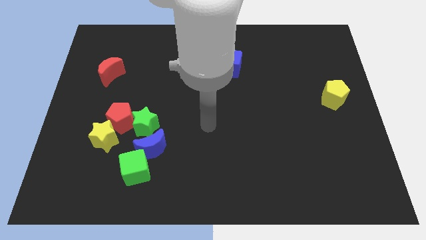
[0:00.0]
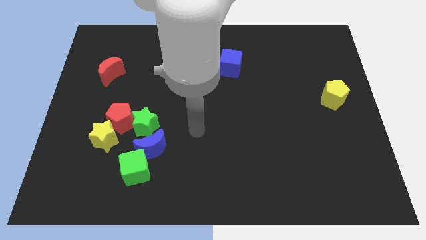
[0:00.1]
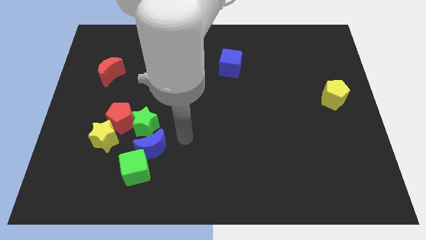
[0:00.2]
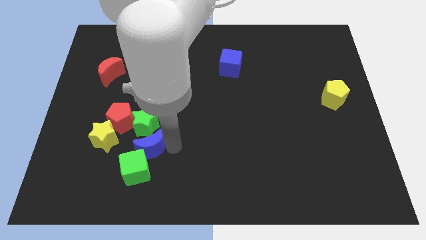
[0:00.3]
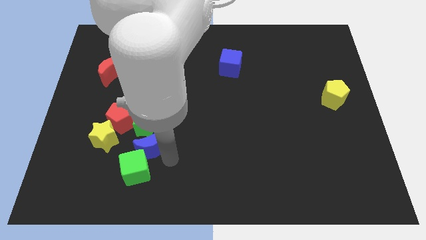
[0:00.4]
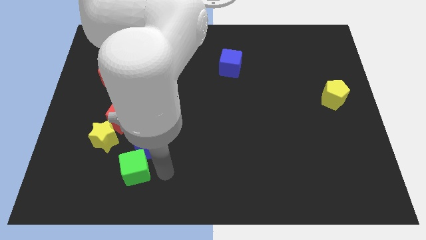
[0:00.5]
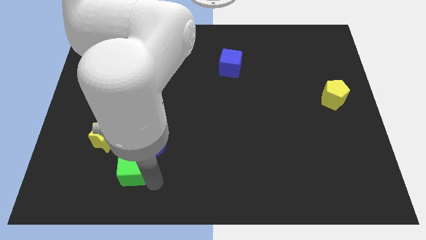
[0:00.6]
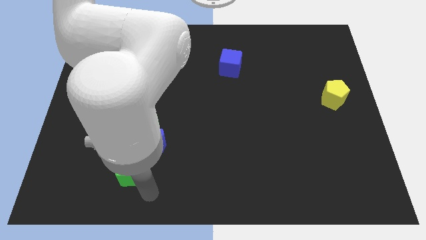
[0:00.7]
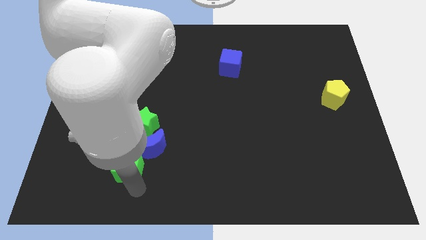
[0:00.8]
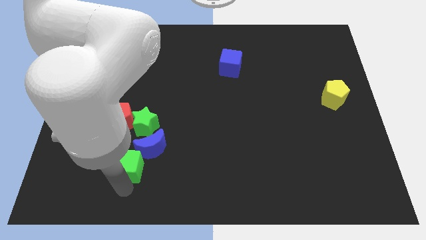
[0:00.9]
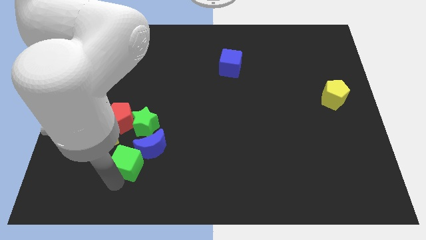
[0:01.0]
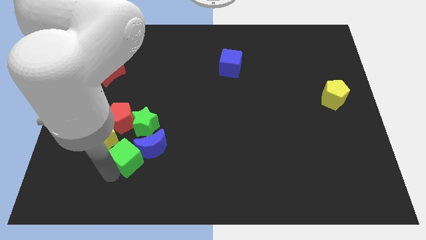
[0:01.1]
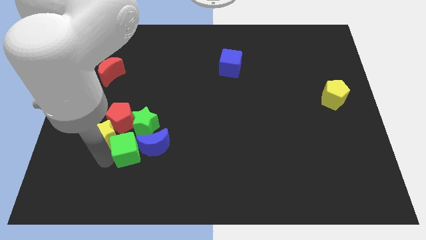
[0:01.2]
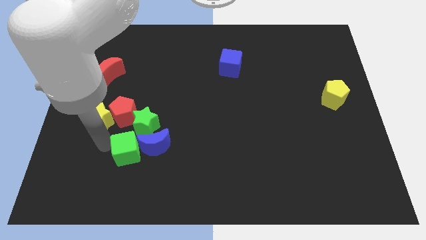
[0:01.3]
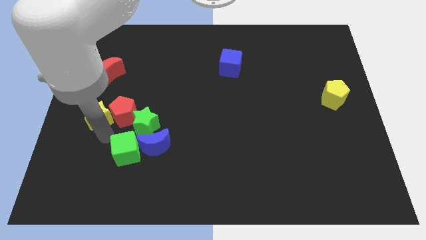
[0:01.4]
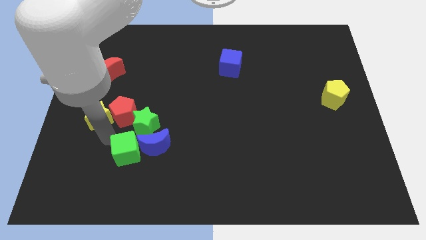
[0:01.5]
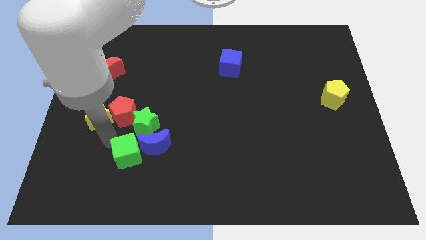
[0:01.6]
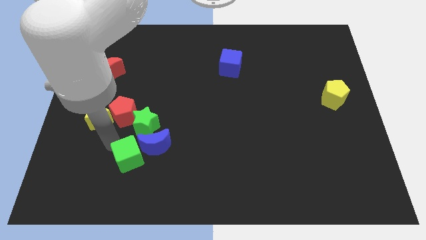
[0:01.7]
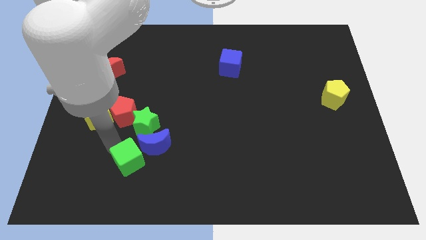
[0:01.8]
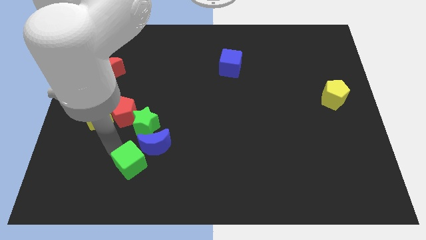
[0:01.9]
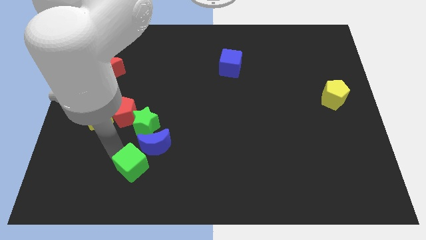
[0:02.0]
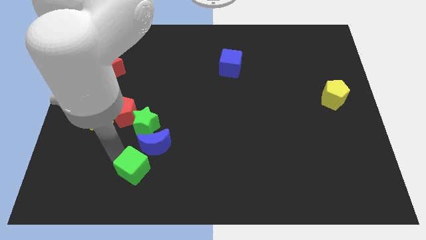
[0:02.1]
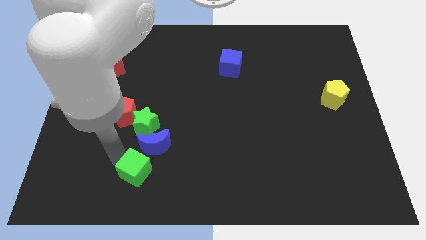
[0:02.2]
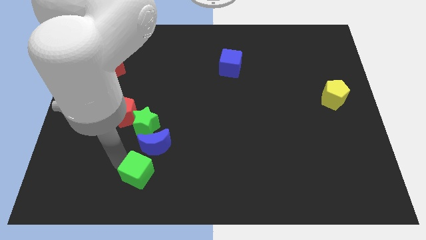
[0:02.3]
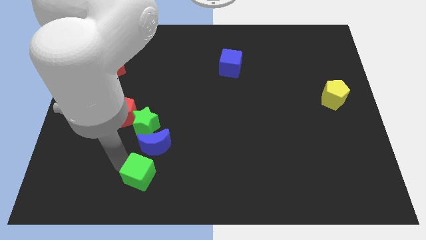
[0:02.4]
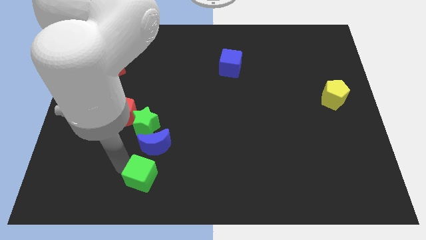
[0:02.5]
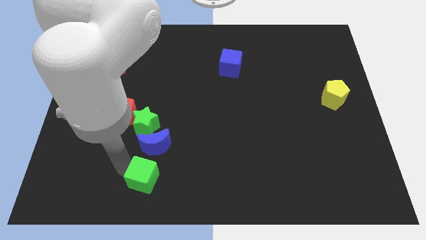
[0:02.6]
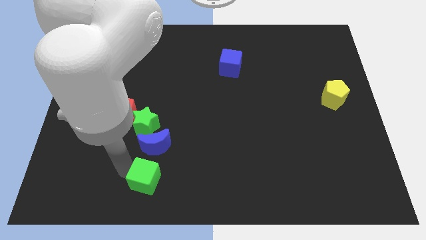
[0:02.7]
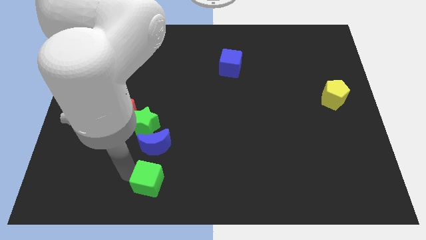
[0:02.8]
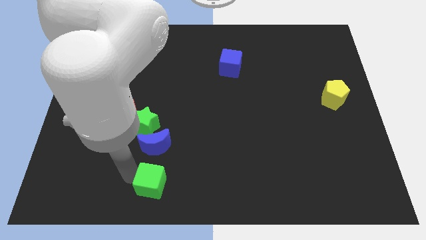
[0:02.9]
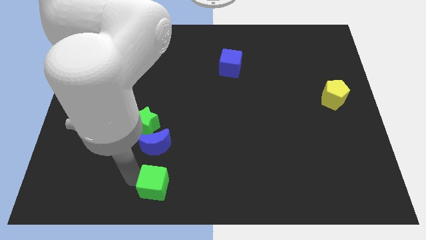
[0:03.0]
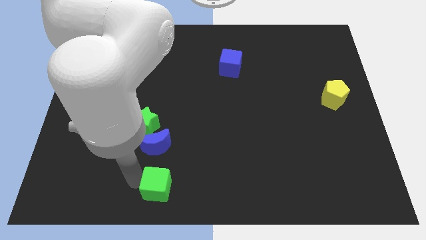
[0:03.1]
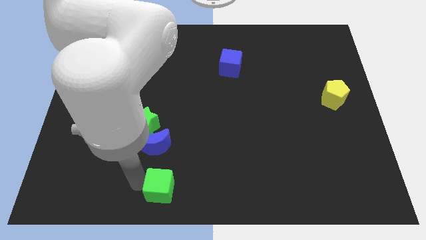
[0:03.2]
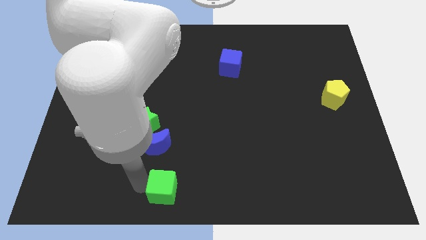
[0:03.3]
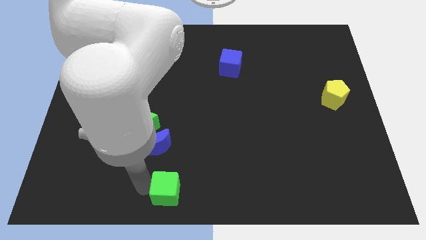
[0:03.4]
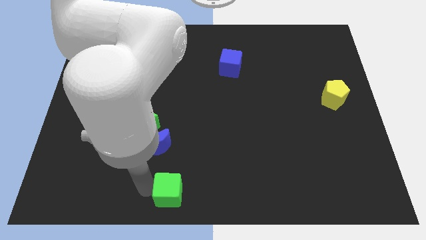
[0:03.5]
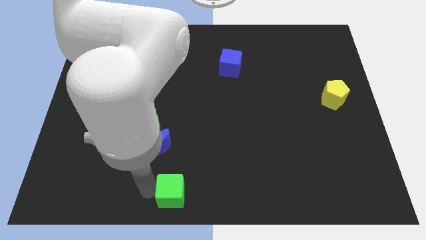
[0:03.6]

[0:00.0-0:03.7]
move the green cube to the right a little bit

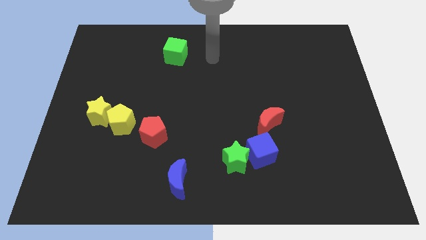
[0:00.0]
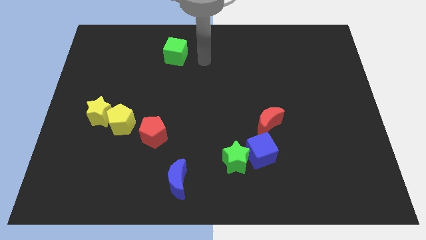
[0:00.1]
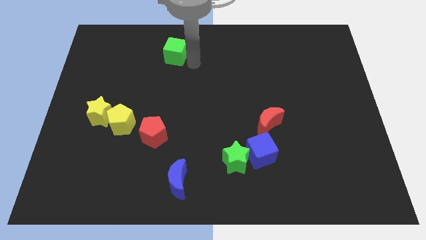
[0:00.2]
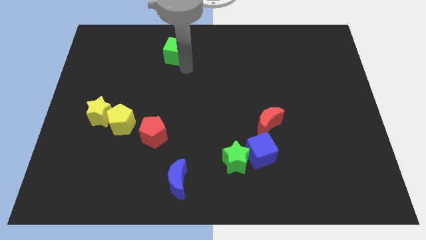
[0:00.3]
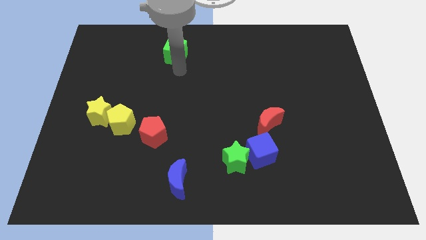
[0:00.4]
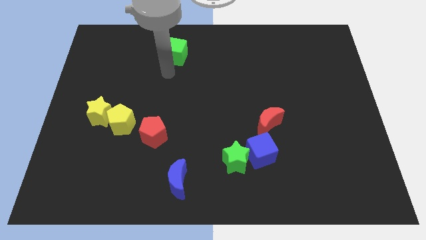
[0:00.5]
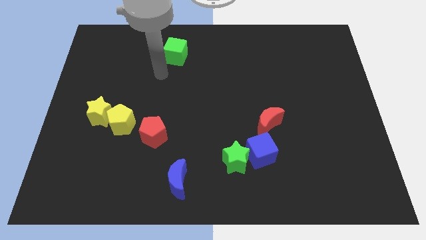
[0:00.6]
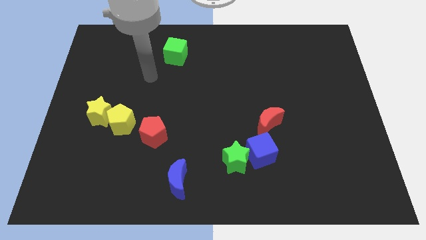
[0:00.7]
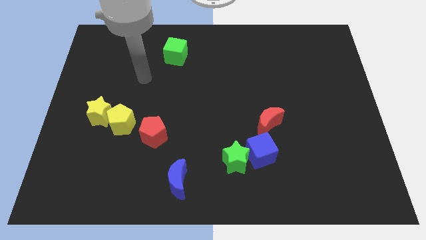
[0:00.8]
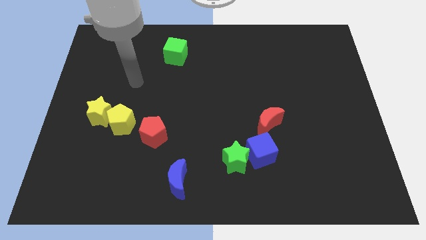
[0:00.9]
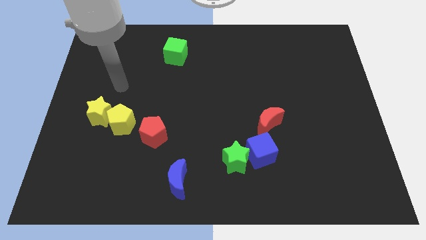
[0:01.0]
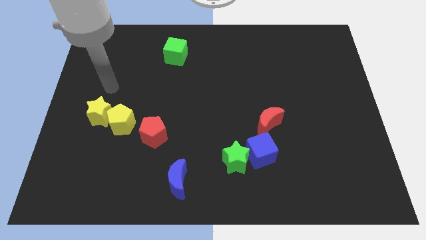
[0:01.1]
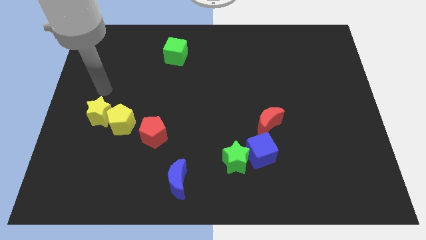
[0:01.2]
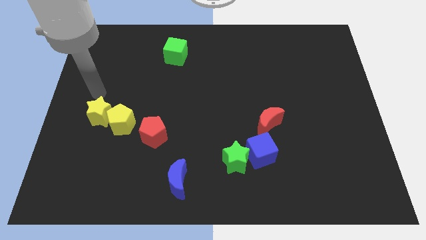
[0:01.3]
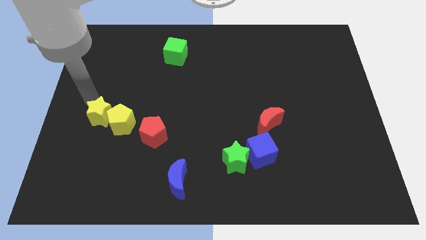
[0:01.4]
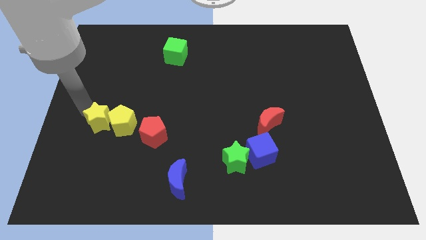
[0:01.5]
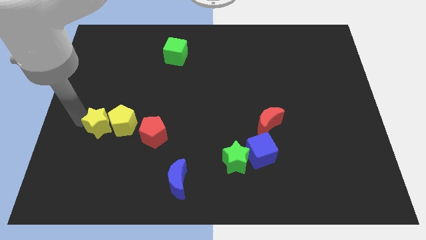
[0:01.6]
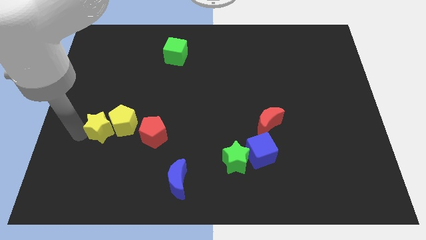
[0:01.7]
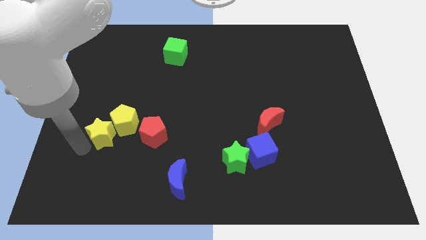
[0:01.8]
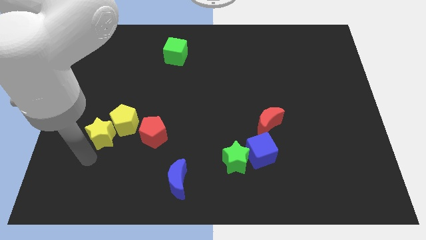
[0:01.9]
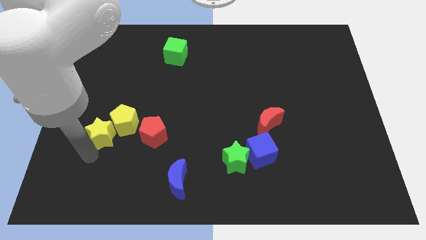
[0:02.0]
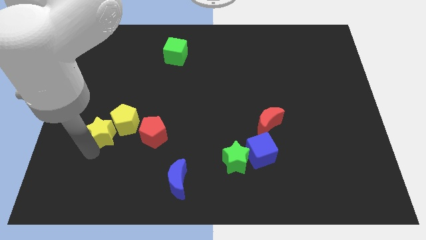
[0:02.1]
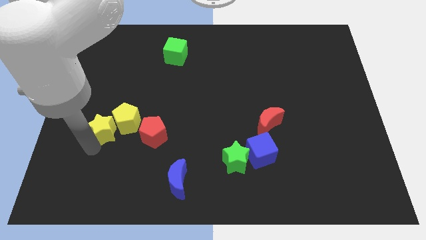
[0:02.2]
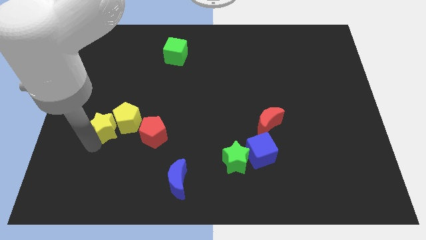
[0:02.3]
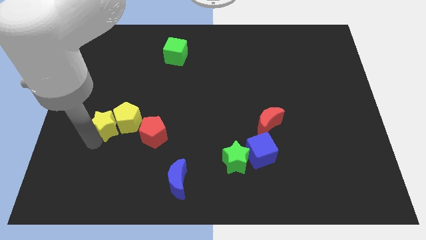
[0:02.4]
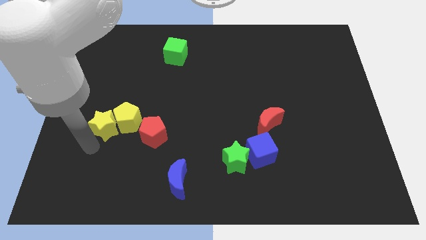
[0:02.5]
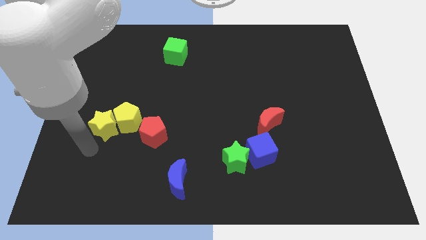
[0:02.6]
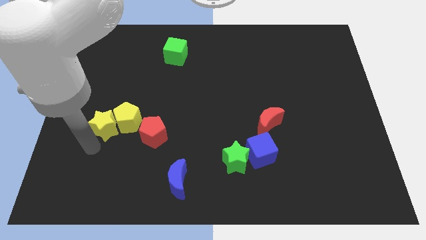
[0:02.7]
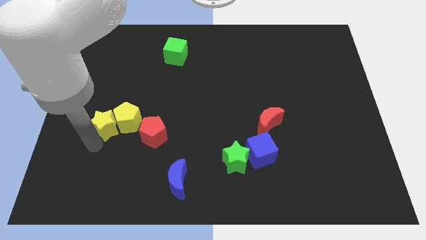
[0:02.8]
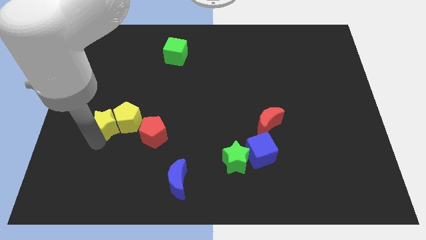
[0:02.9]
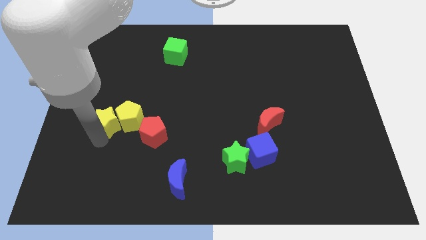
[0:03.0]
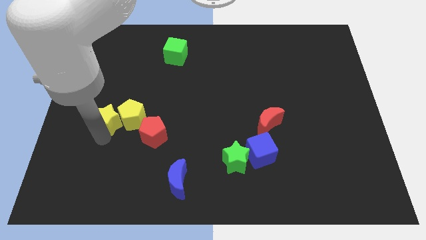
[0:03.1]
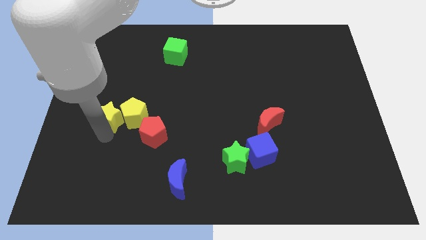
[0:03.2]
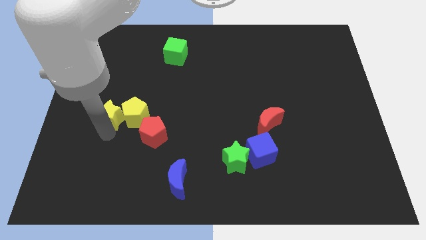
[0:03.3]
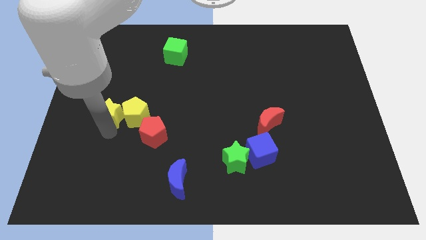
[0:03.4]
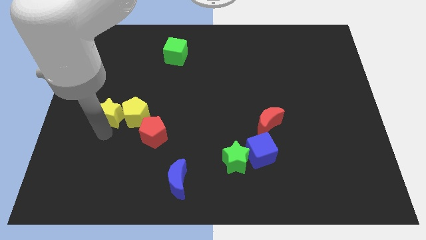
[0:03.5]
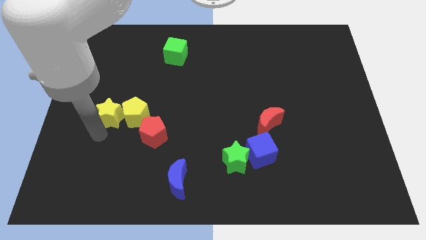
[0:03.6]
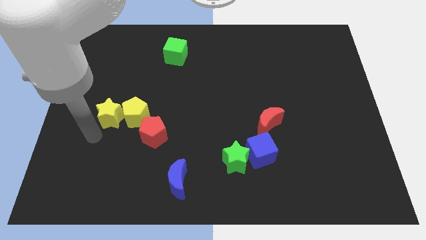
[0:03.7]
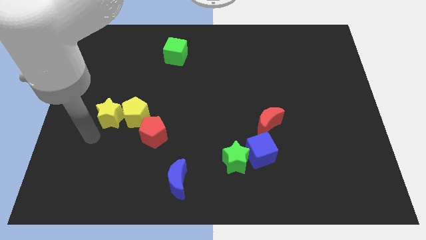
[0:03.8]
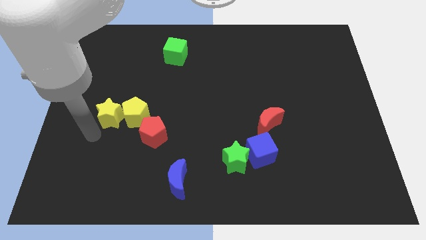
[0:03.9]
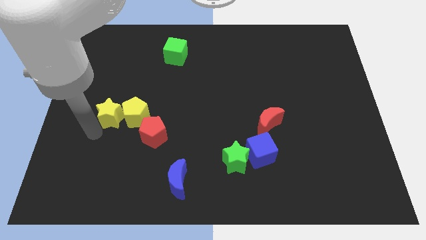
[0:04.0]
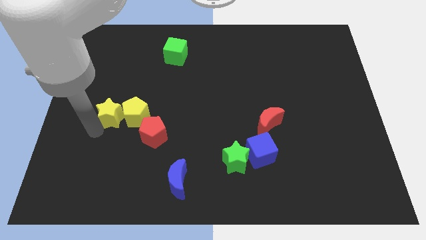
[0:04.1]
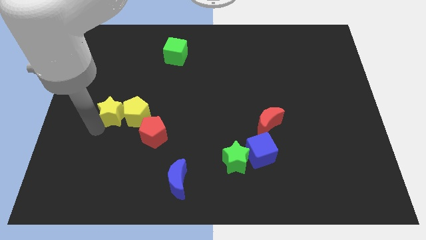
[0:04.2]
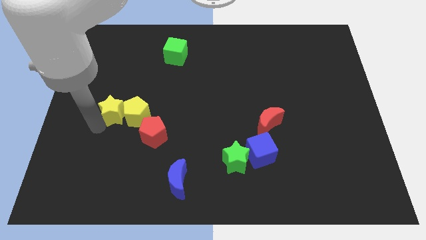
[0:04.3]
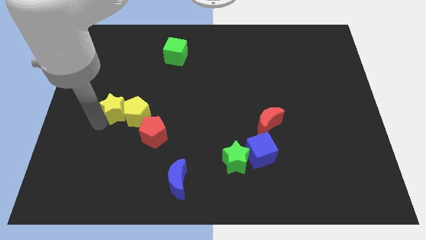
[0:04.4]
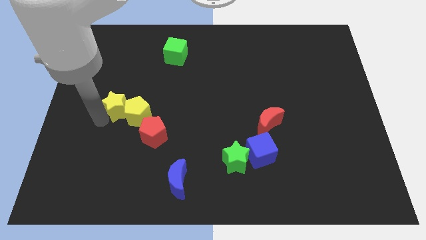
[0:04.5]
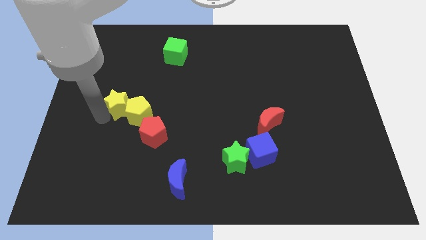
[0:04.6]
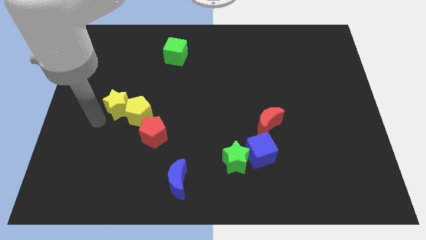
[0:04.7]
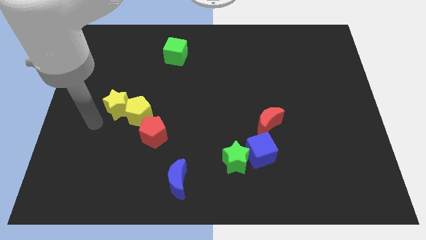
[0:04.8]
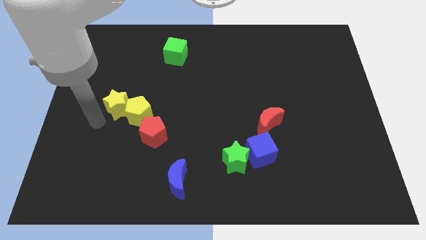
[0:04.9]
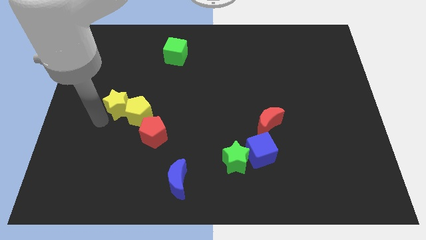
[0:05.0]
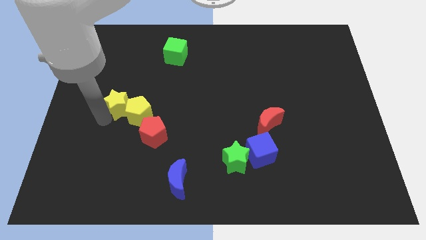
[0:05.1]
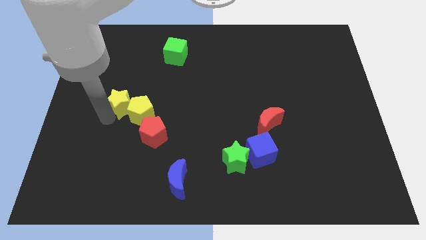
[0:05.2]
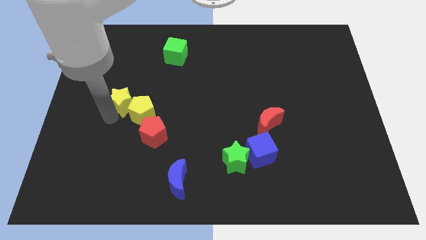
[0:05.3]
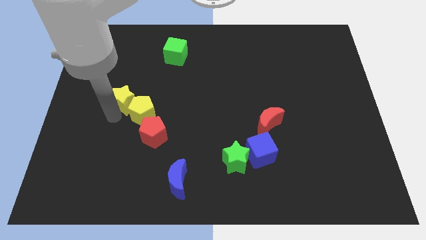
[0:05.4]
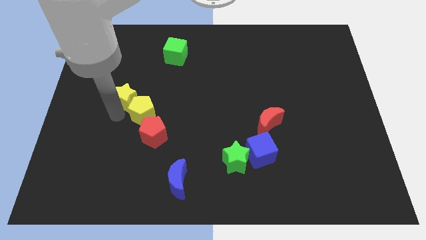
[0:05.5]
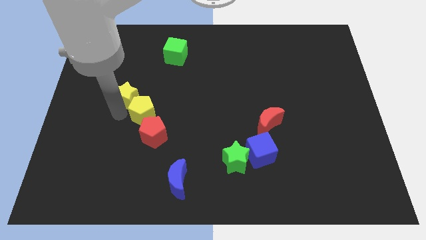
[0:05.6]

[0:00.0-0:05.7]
push the yellow star upwards and right diagonally a little bit
